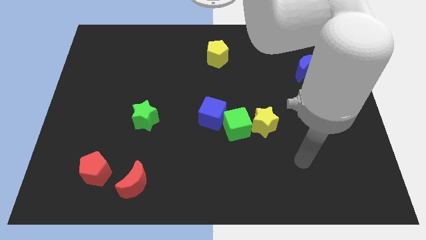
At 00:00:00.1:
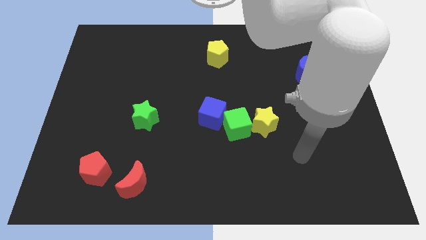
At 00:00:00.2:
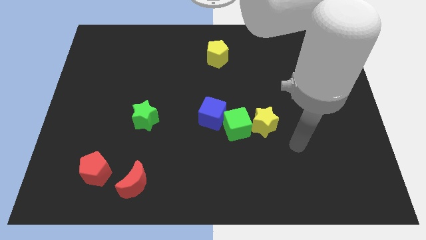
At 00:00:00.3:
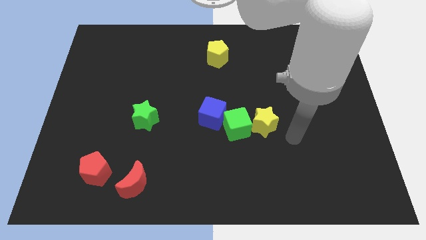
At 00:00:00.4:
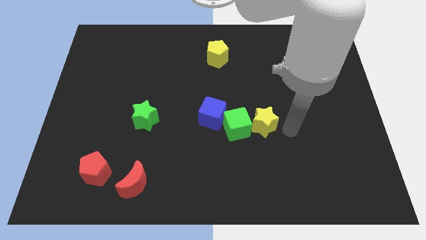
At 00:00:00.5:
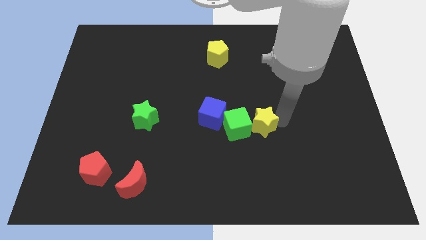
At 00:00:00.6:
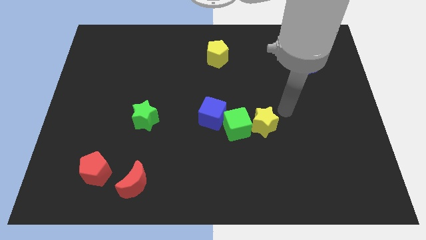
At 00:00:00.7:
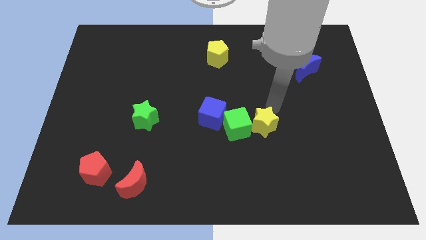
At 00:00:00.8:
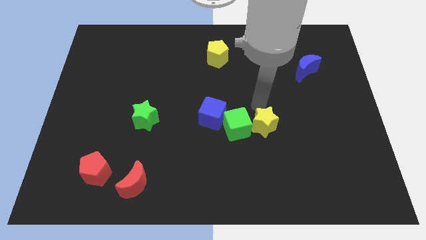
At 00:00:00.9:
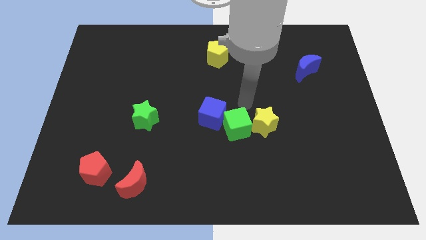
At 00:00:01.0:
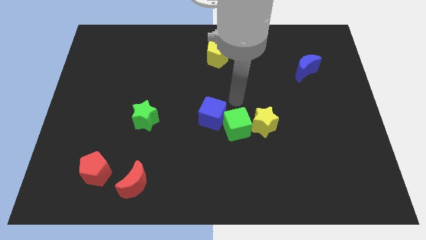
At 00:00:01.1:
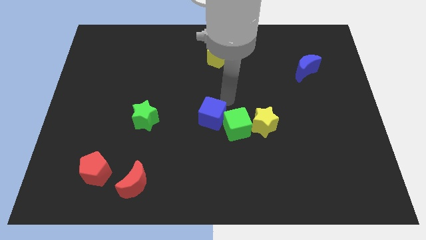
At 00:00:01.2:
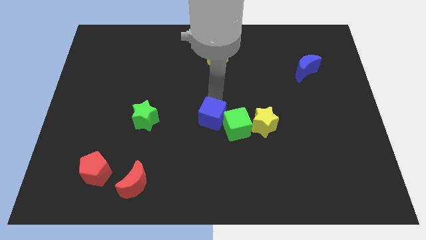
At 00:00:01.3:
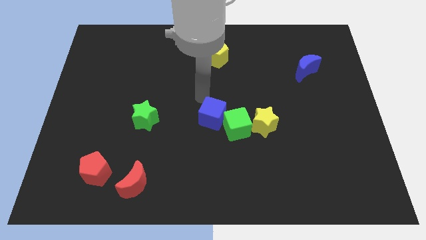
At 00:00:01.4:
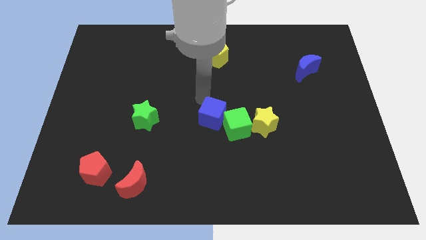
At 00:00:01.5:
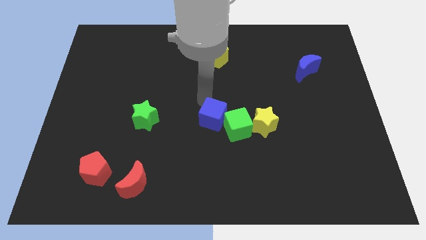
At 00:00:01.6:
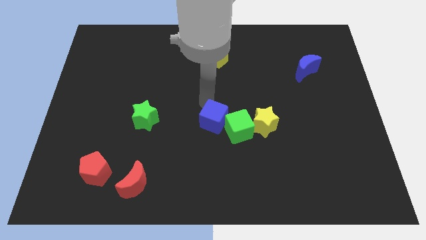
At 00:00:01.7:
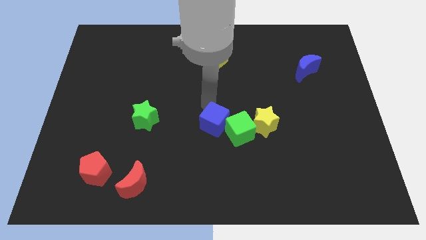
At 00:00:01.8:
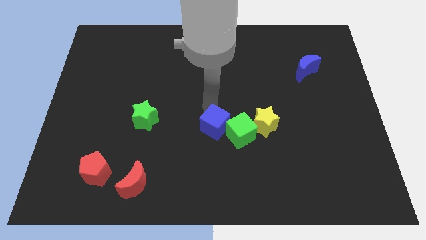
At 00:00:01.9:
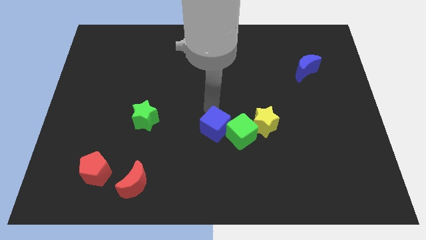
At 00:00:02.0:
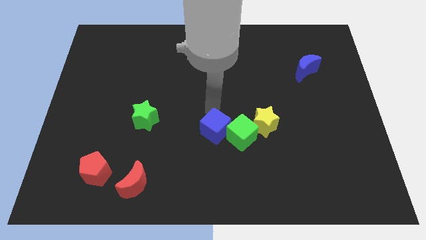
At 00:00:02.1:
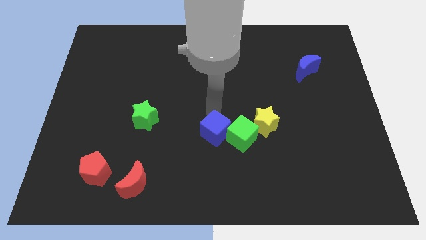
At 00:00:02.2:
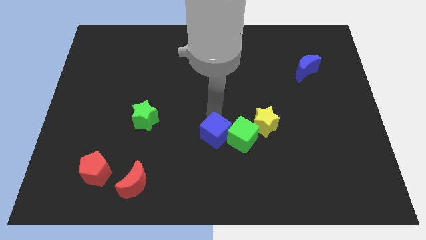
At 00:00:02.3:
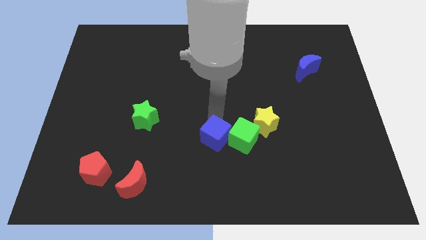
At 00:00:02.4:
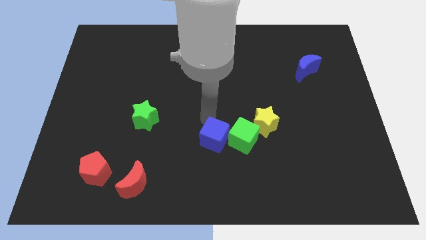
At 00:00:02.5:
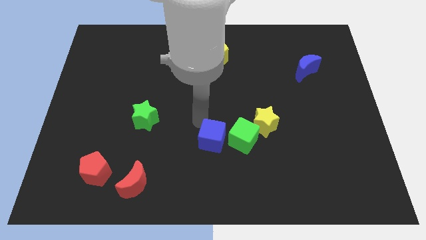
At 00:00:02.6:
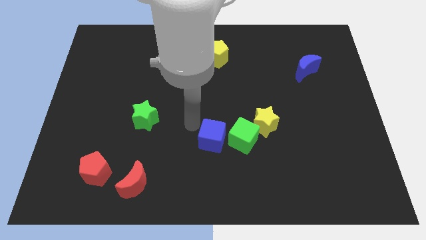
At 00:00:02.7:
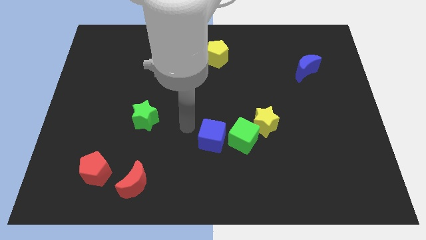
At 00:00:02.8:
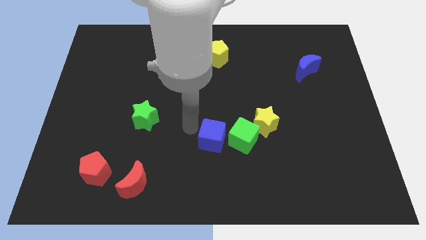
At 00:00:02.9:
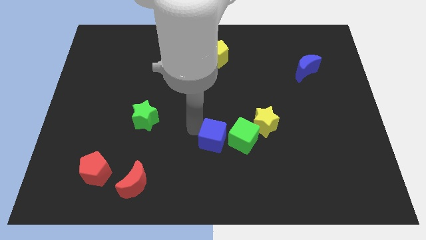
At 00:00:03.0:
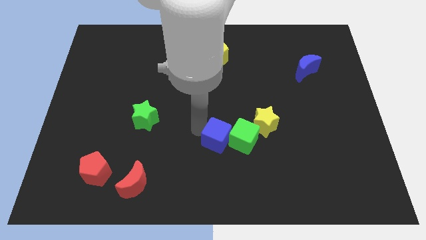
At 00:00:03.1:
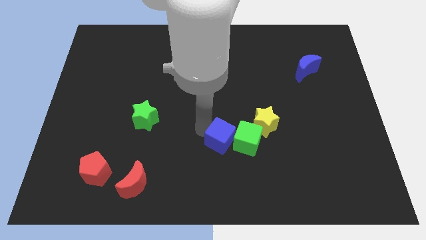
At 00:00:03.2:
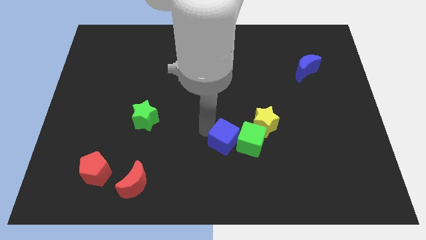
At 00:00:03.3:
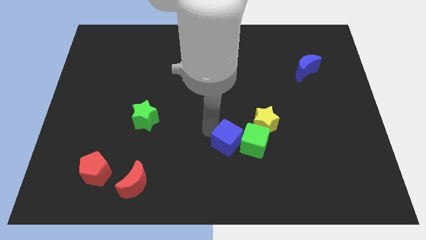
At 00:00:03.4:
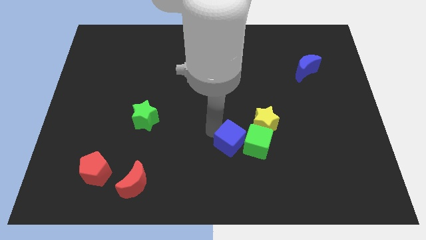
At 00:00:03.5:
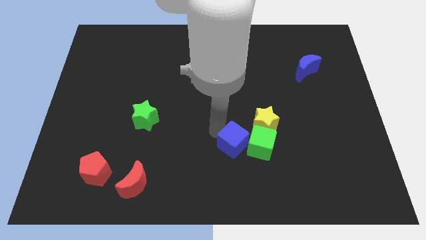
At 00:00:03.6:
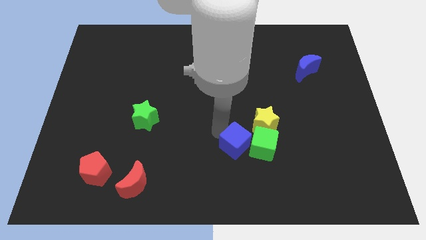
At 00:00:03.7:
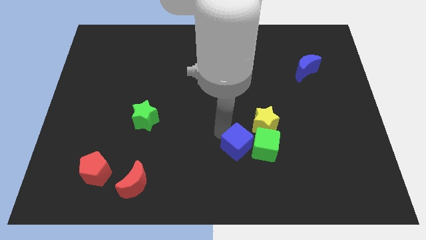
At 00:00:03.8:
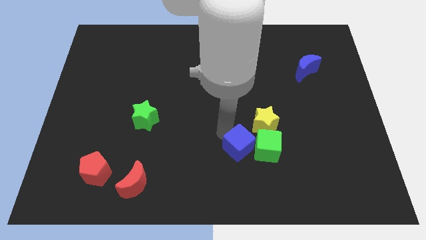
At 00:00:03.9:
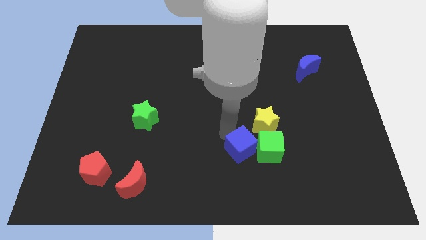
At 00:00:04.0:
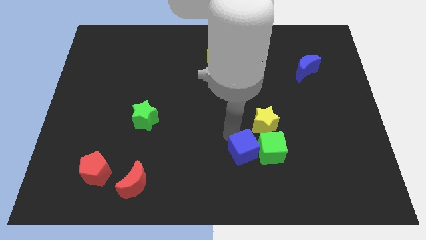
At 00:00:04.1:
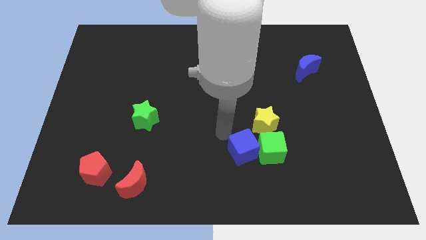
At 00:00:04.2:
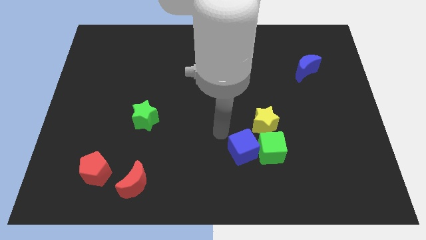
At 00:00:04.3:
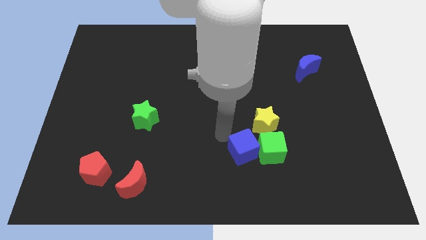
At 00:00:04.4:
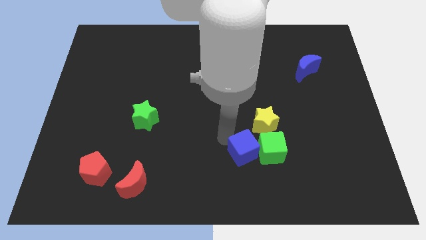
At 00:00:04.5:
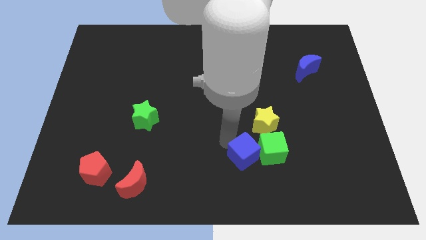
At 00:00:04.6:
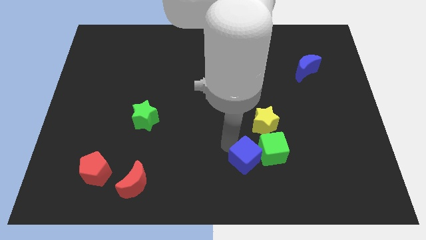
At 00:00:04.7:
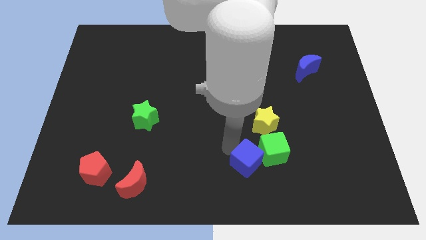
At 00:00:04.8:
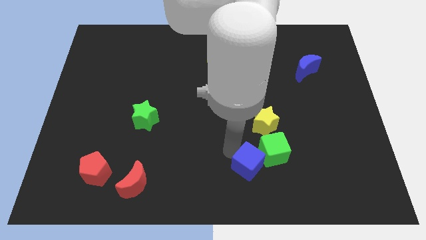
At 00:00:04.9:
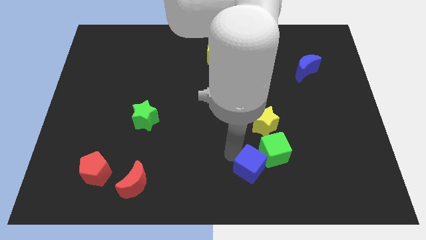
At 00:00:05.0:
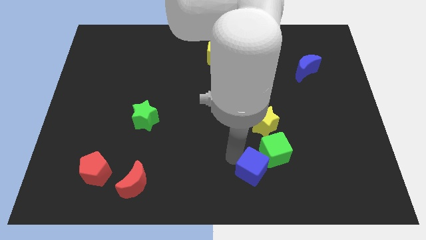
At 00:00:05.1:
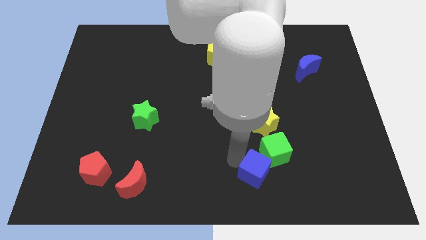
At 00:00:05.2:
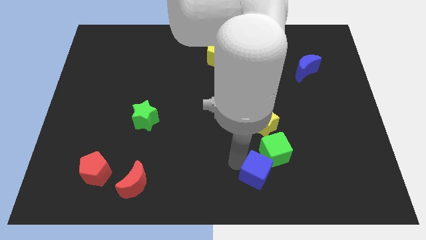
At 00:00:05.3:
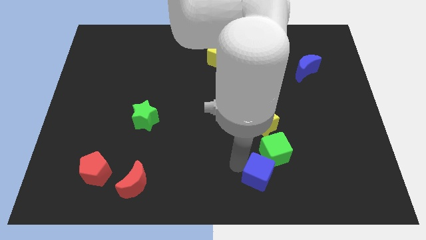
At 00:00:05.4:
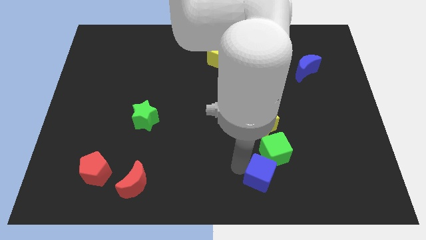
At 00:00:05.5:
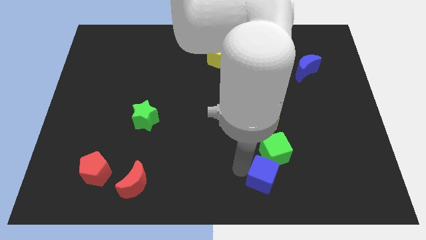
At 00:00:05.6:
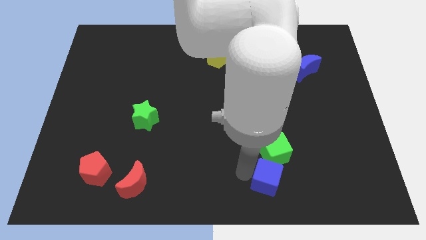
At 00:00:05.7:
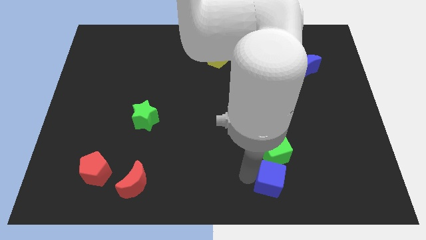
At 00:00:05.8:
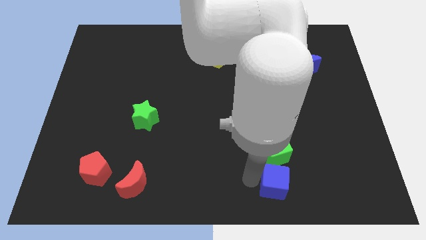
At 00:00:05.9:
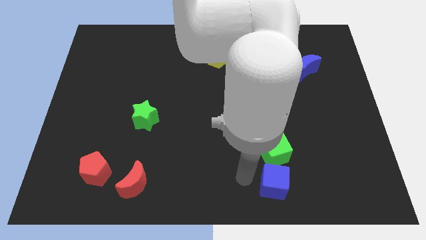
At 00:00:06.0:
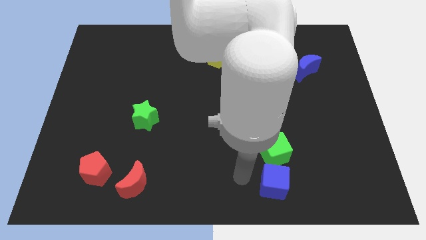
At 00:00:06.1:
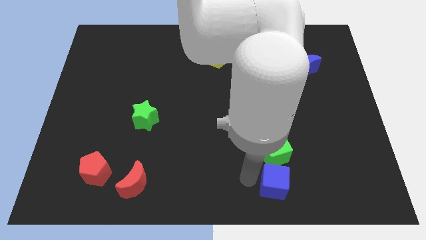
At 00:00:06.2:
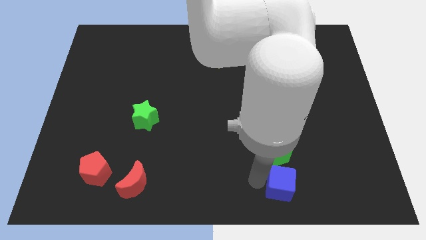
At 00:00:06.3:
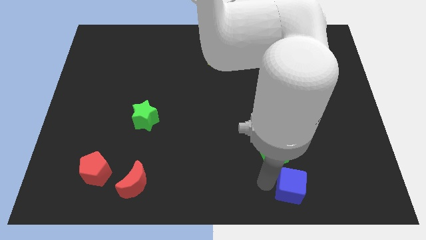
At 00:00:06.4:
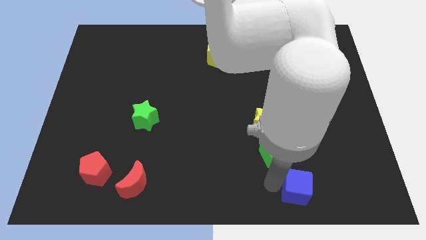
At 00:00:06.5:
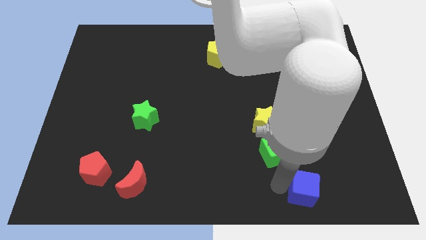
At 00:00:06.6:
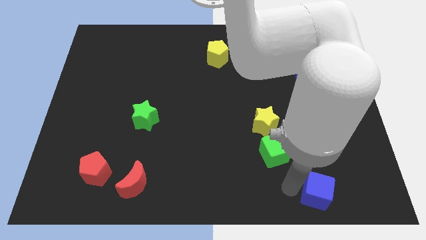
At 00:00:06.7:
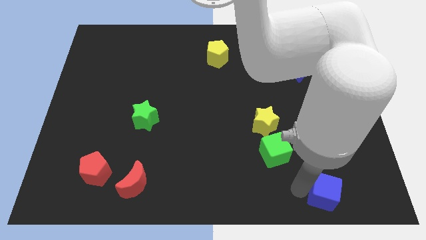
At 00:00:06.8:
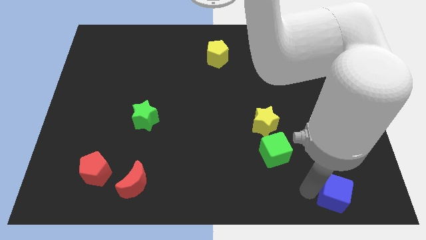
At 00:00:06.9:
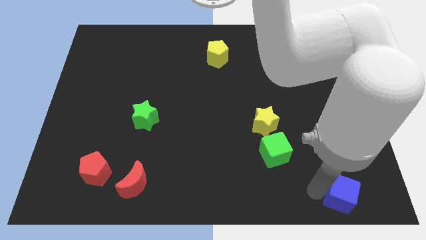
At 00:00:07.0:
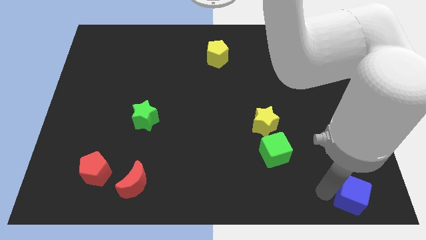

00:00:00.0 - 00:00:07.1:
slide the blue cube to the bottom right corner

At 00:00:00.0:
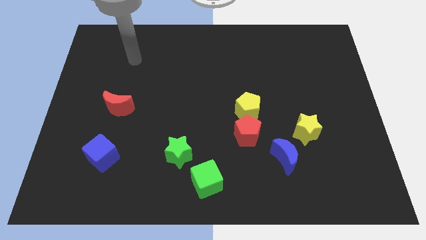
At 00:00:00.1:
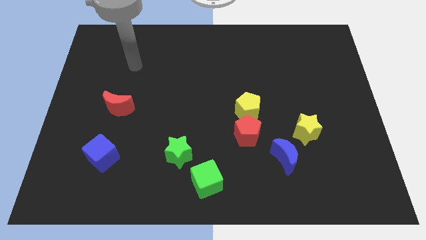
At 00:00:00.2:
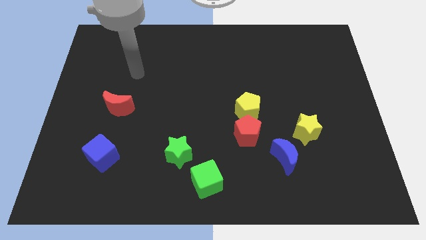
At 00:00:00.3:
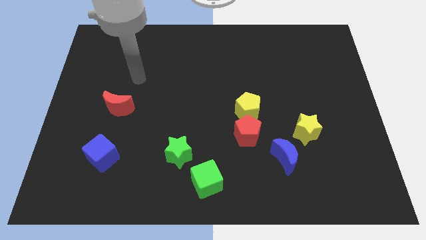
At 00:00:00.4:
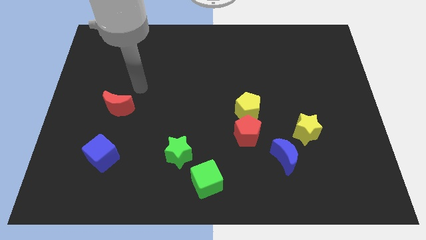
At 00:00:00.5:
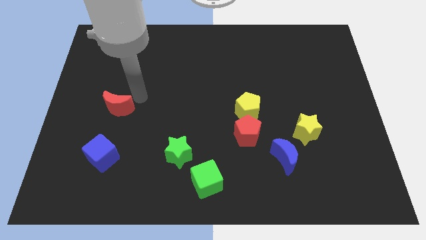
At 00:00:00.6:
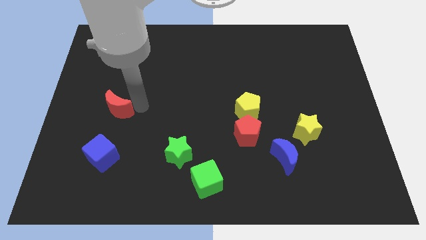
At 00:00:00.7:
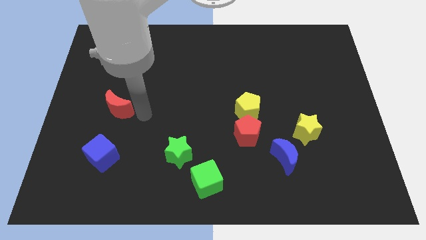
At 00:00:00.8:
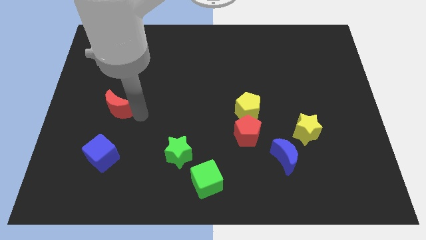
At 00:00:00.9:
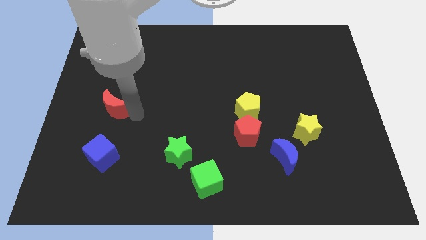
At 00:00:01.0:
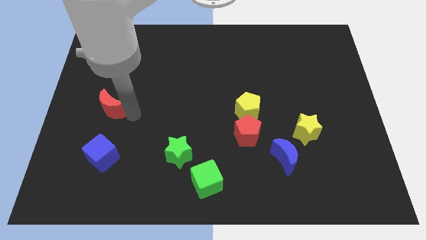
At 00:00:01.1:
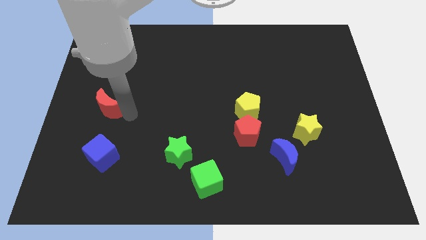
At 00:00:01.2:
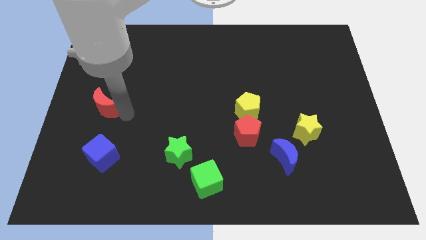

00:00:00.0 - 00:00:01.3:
move the red moon to the center left
